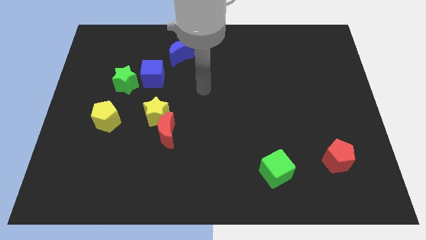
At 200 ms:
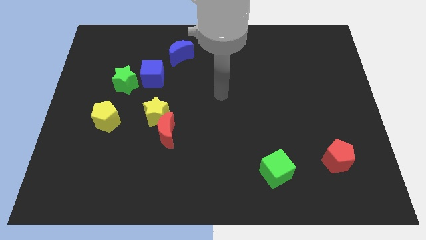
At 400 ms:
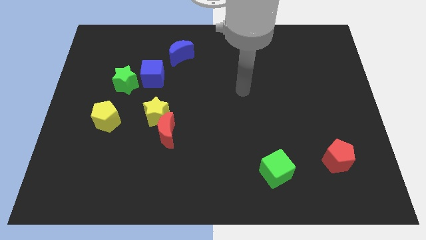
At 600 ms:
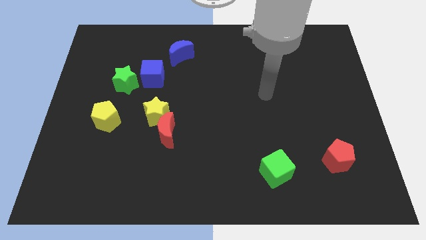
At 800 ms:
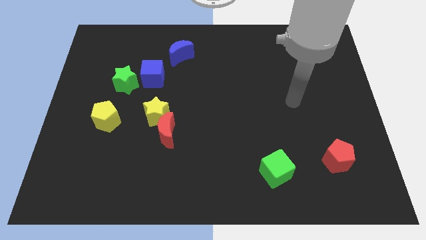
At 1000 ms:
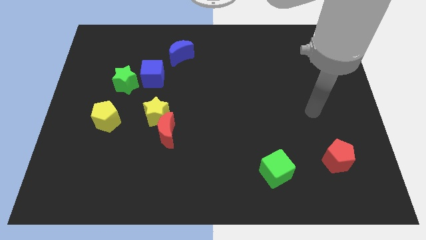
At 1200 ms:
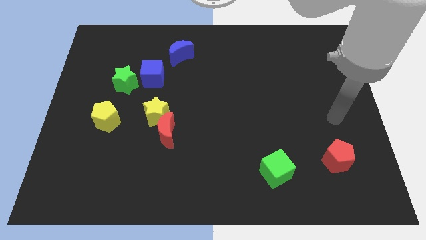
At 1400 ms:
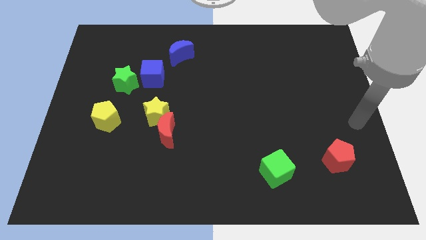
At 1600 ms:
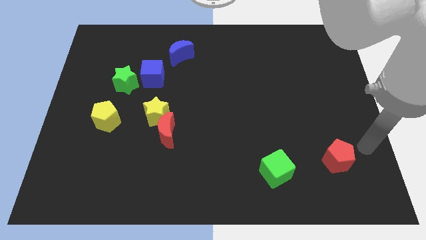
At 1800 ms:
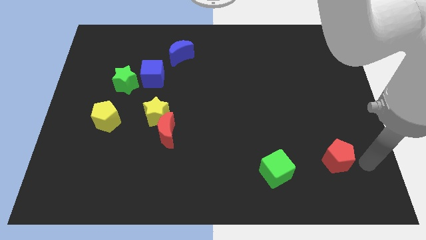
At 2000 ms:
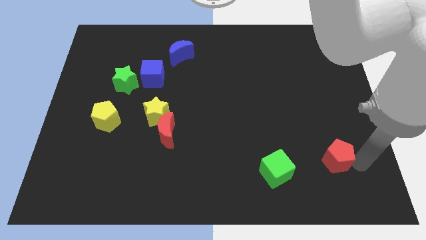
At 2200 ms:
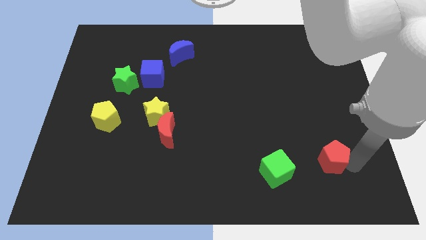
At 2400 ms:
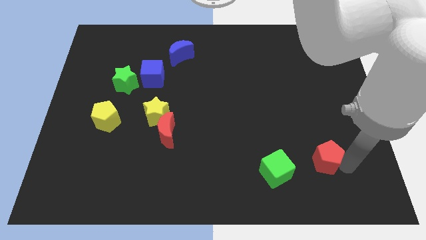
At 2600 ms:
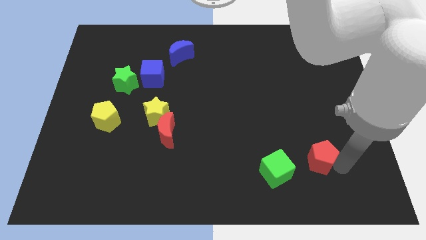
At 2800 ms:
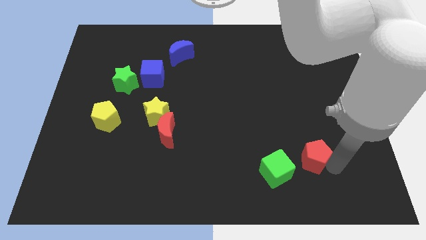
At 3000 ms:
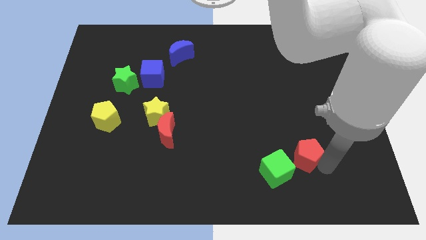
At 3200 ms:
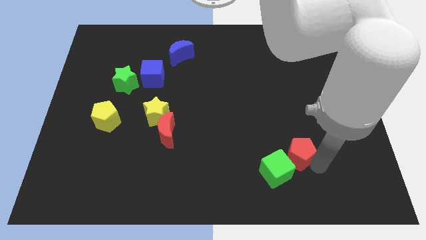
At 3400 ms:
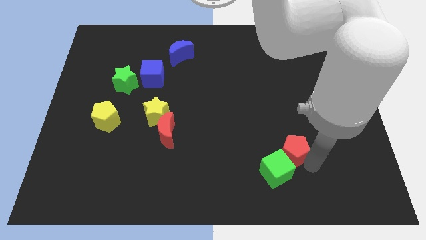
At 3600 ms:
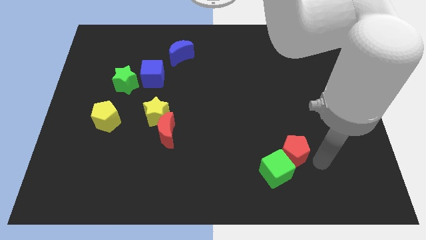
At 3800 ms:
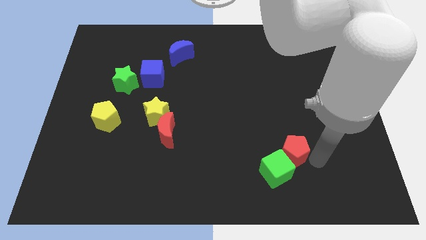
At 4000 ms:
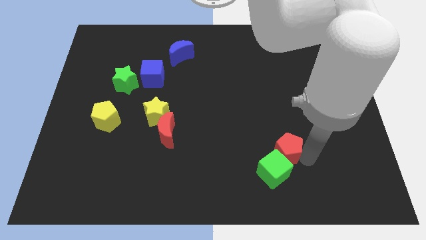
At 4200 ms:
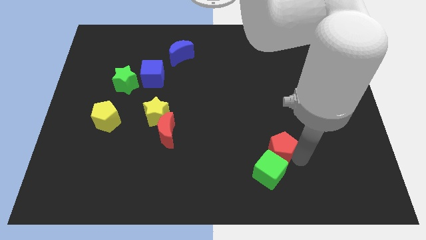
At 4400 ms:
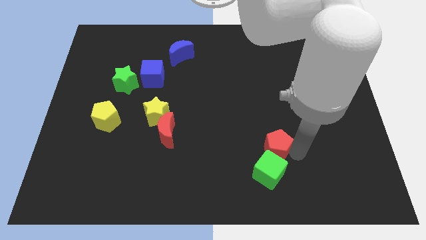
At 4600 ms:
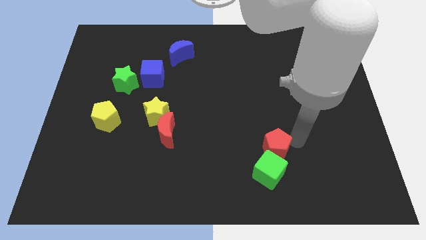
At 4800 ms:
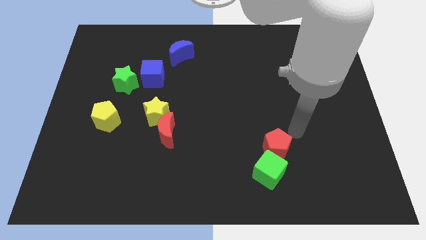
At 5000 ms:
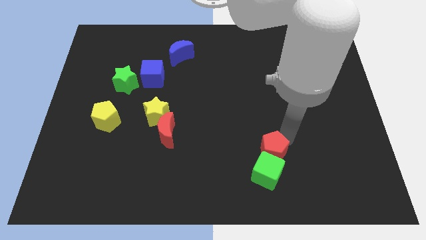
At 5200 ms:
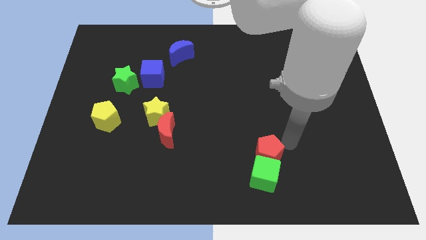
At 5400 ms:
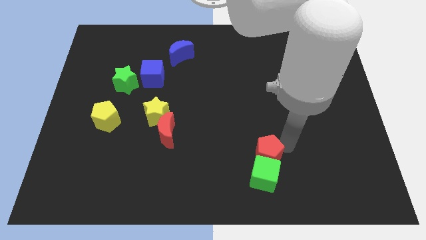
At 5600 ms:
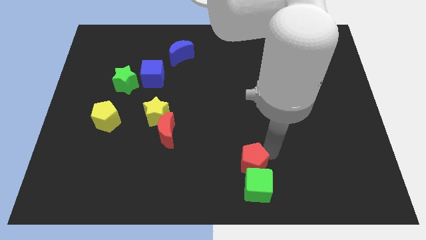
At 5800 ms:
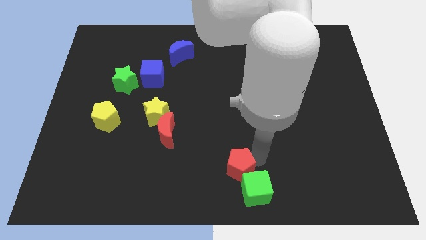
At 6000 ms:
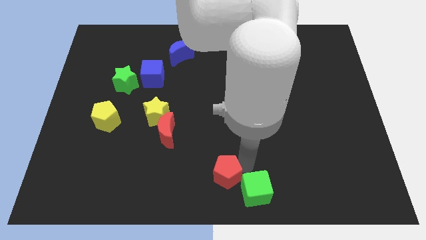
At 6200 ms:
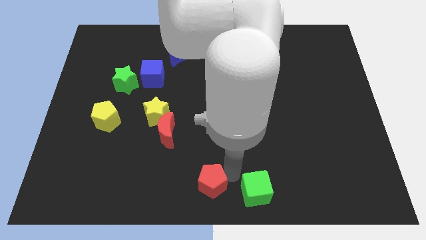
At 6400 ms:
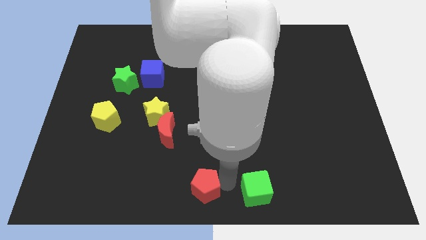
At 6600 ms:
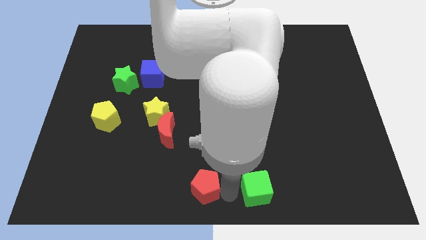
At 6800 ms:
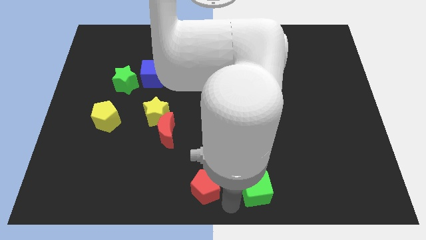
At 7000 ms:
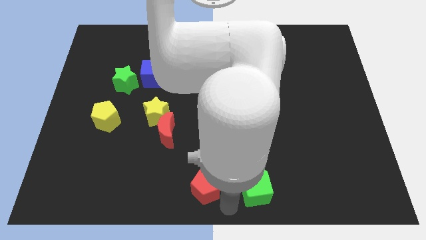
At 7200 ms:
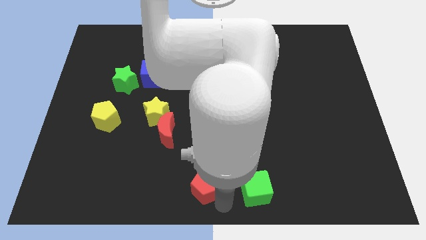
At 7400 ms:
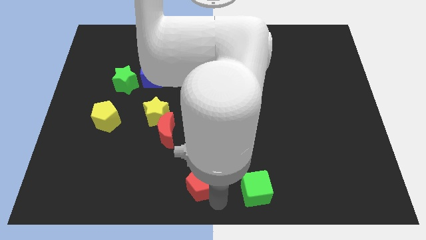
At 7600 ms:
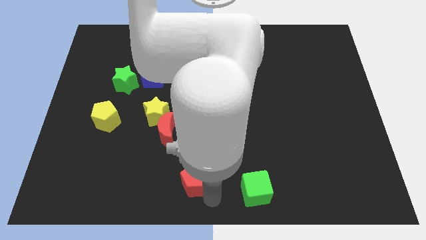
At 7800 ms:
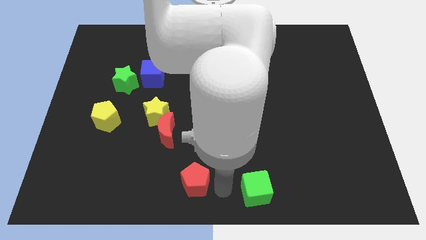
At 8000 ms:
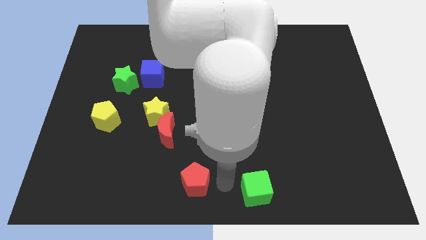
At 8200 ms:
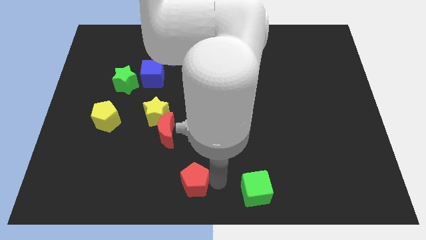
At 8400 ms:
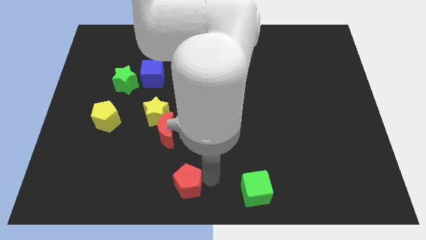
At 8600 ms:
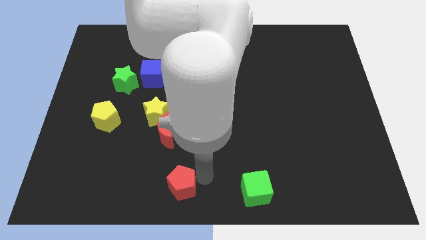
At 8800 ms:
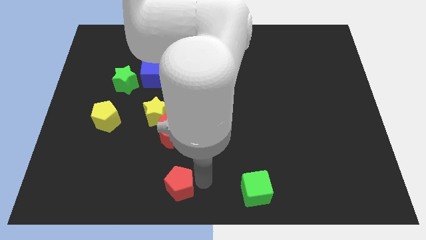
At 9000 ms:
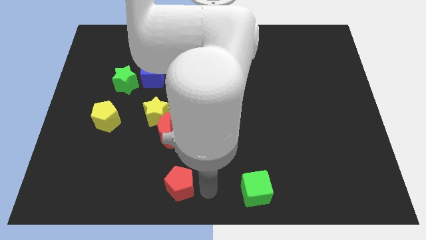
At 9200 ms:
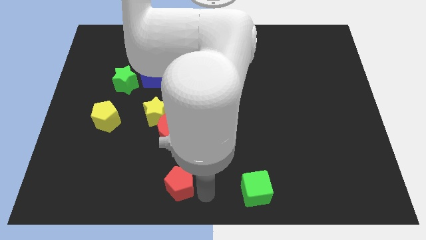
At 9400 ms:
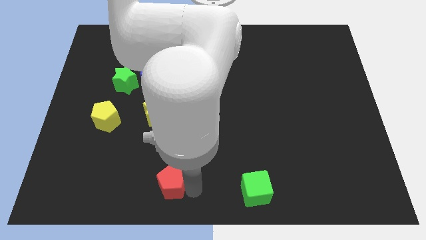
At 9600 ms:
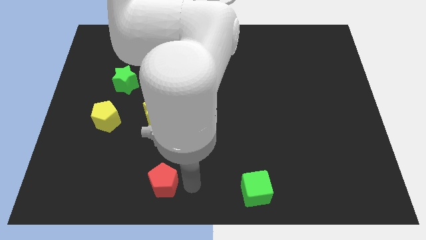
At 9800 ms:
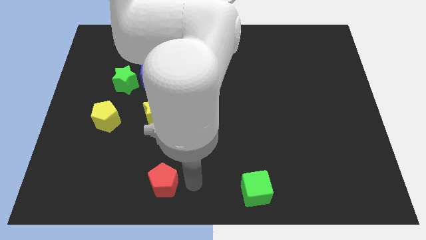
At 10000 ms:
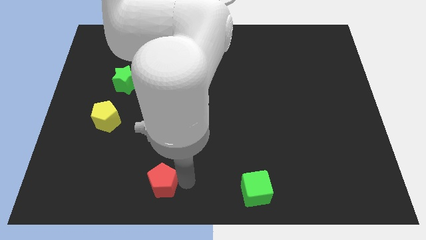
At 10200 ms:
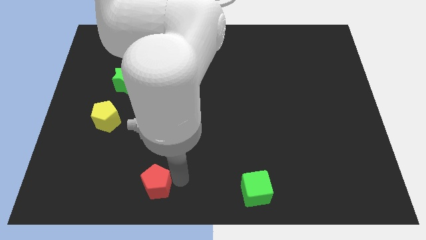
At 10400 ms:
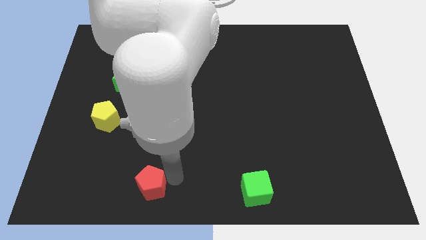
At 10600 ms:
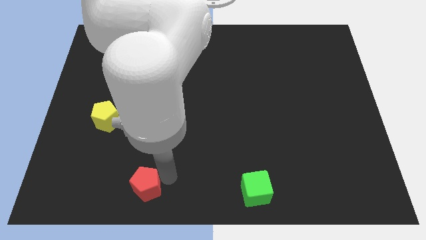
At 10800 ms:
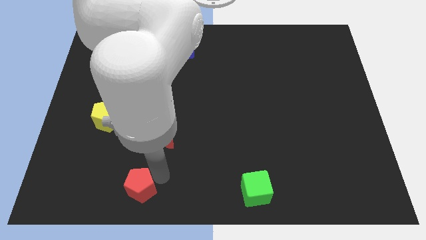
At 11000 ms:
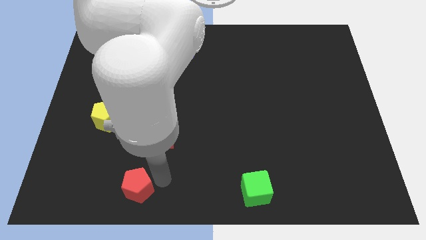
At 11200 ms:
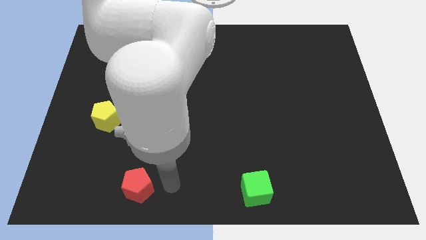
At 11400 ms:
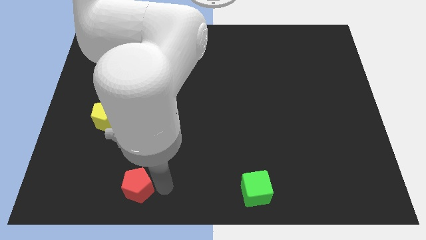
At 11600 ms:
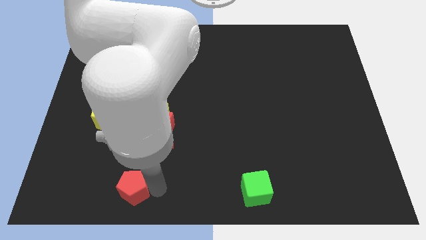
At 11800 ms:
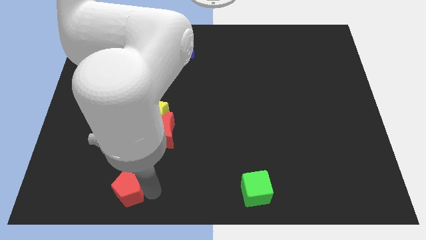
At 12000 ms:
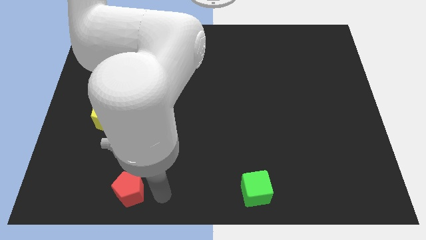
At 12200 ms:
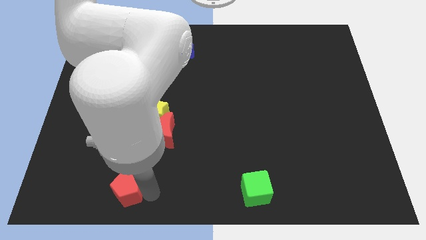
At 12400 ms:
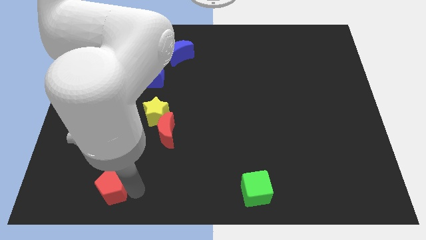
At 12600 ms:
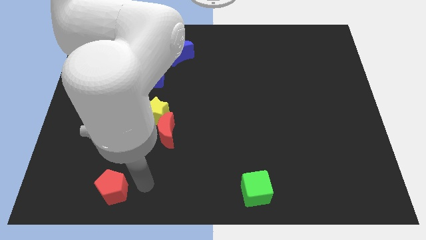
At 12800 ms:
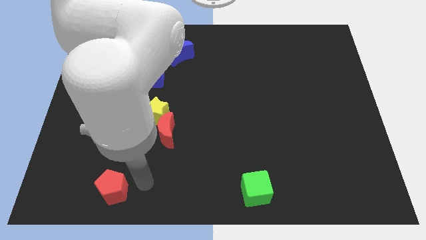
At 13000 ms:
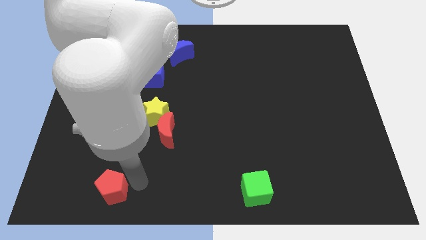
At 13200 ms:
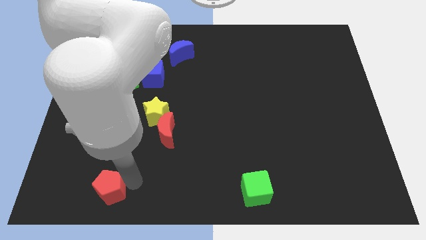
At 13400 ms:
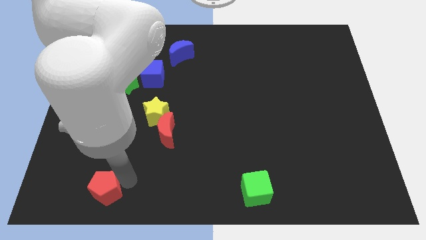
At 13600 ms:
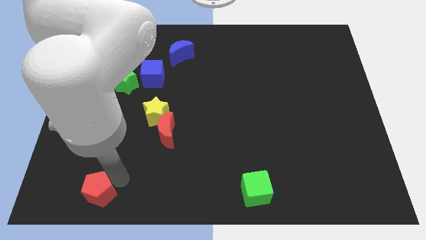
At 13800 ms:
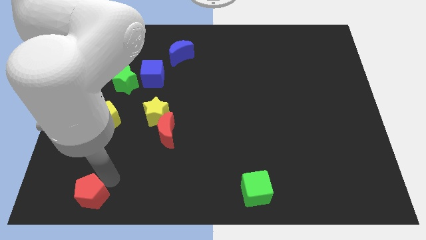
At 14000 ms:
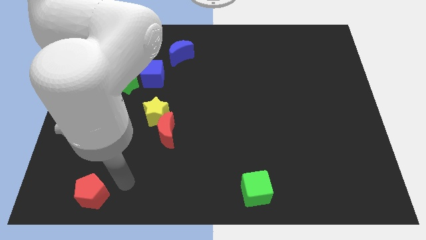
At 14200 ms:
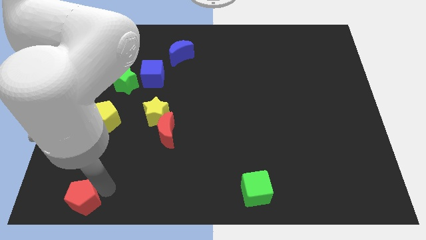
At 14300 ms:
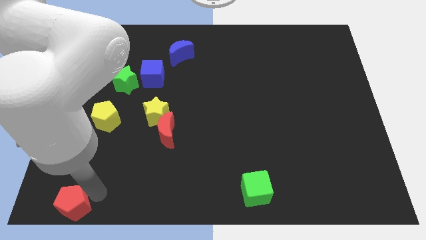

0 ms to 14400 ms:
push the red pentagon to the bottom left corner
